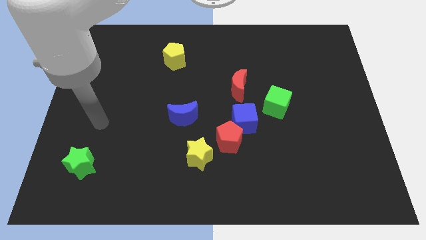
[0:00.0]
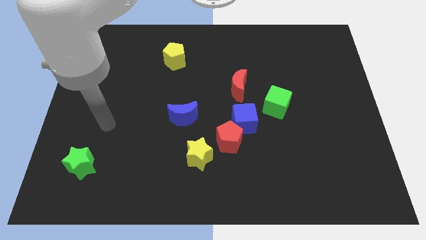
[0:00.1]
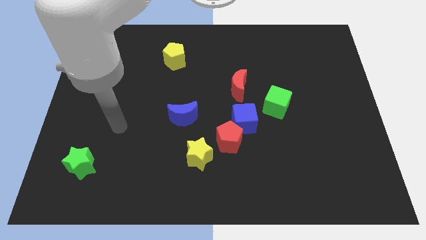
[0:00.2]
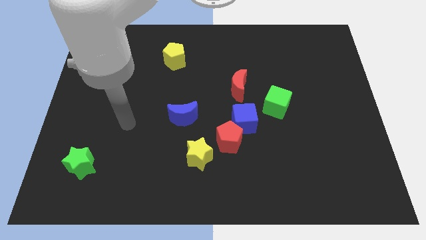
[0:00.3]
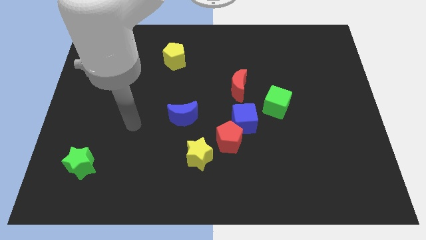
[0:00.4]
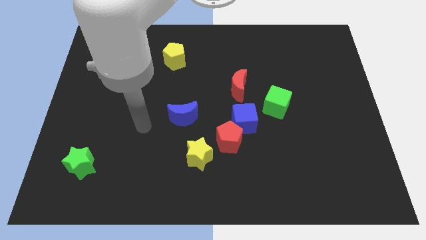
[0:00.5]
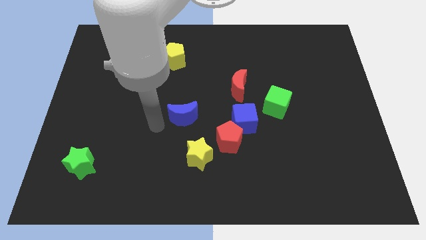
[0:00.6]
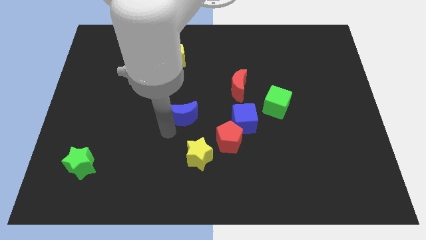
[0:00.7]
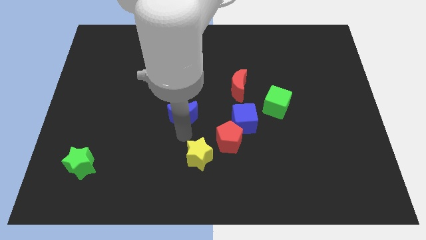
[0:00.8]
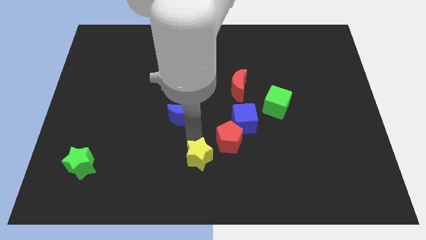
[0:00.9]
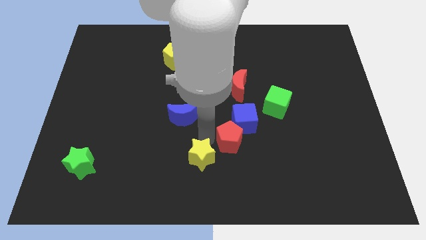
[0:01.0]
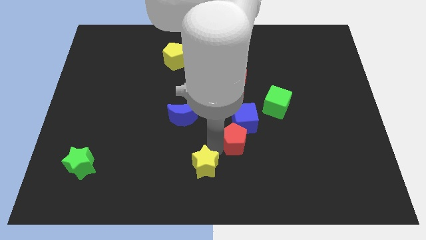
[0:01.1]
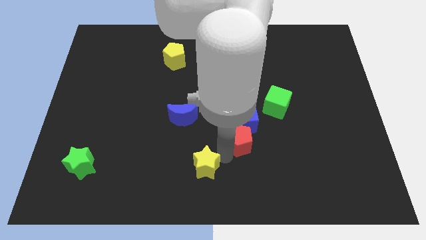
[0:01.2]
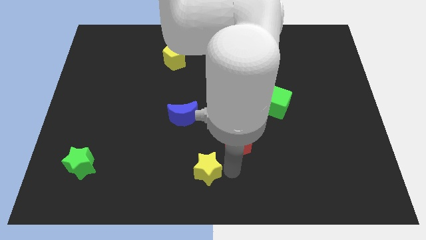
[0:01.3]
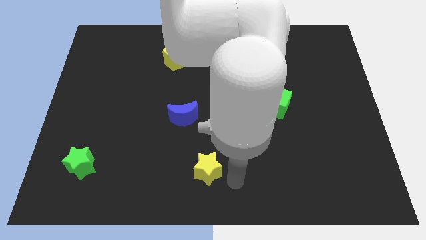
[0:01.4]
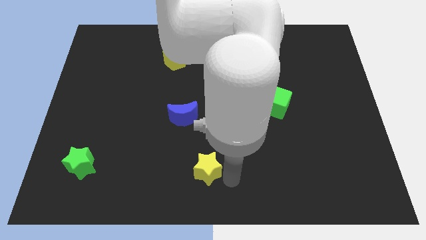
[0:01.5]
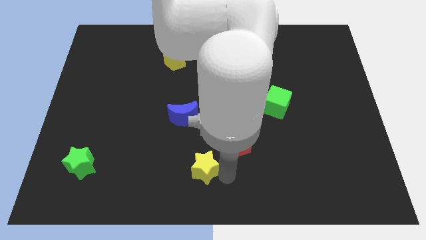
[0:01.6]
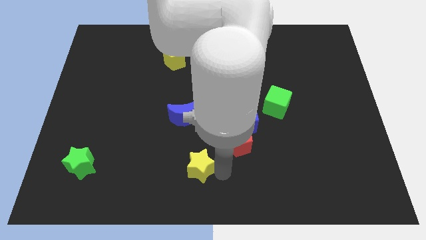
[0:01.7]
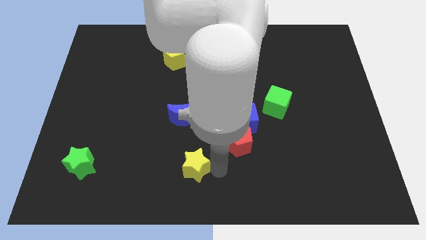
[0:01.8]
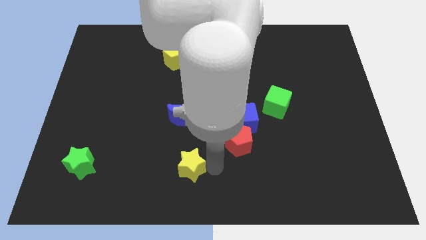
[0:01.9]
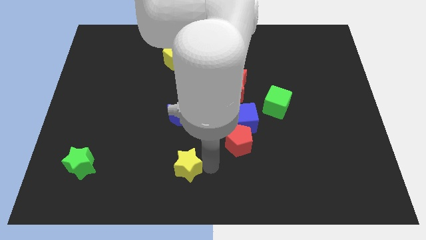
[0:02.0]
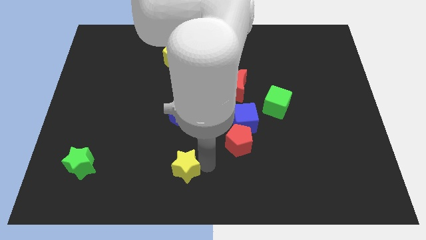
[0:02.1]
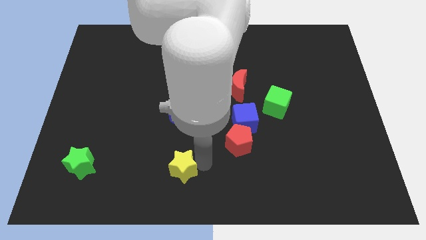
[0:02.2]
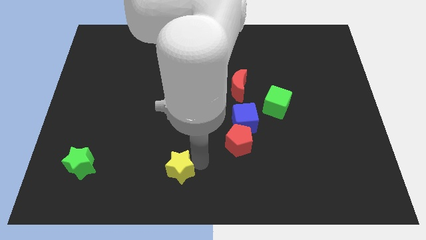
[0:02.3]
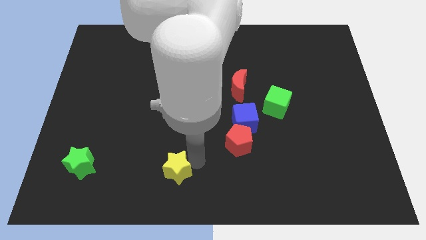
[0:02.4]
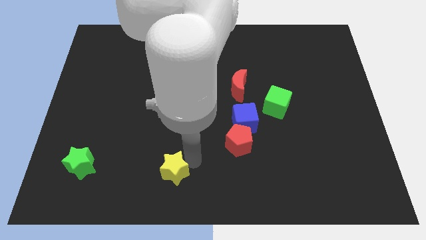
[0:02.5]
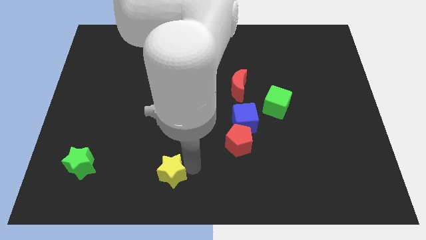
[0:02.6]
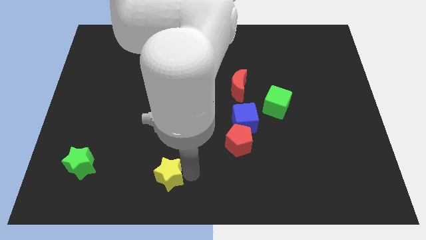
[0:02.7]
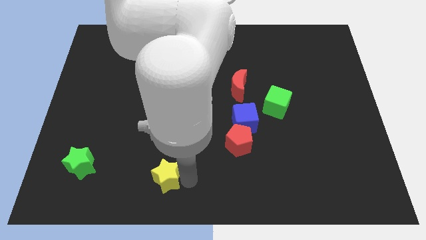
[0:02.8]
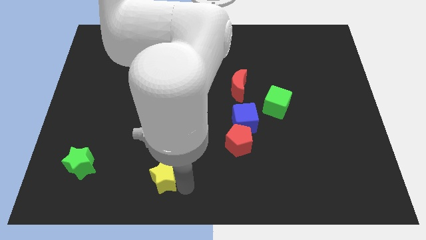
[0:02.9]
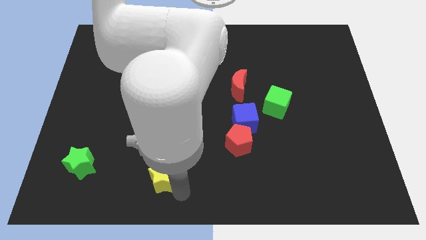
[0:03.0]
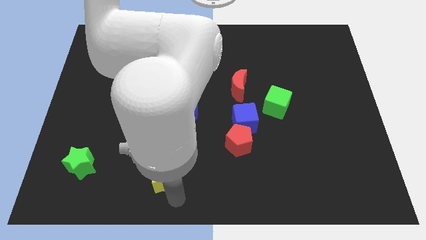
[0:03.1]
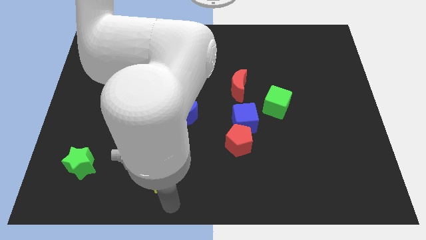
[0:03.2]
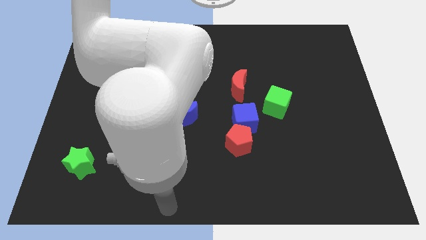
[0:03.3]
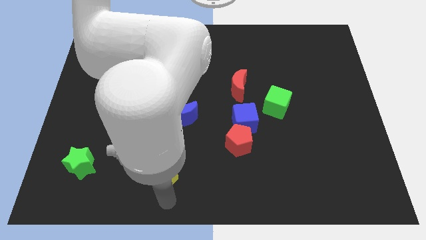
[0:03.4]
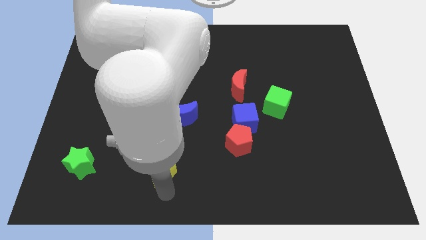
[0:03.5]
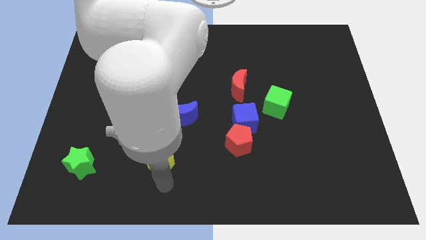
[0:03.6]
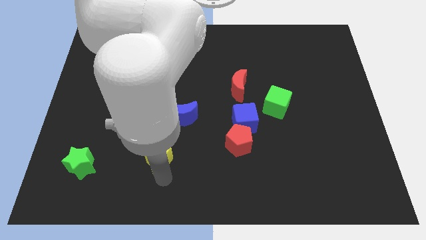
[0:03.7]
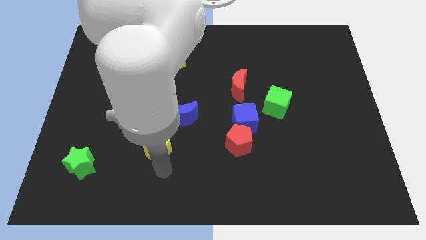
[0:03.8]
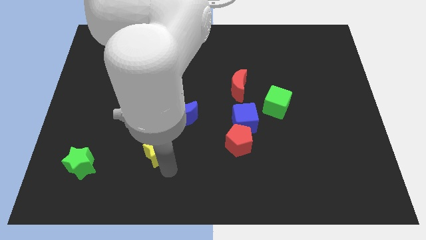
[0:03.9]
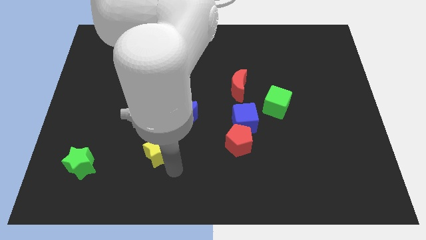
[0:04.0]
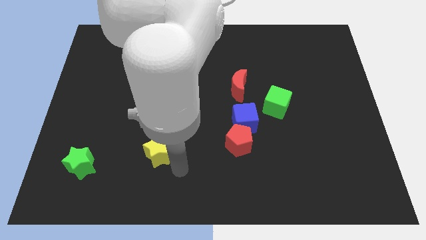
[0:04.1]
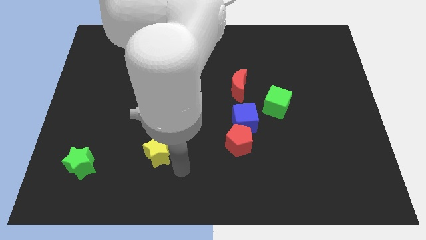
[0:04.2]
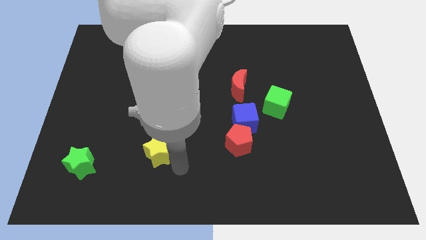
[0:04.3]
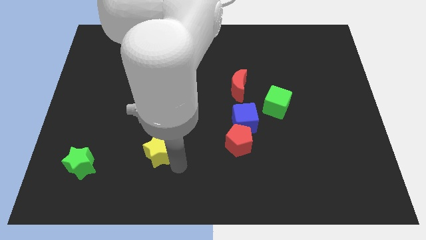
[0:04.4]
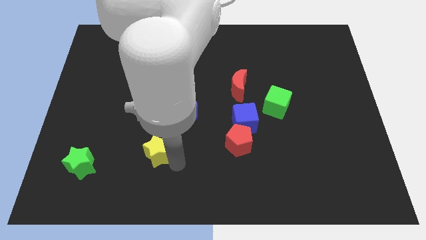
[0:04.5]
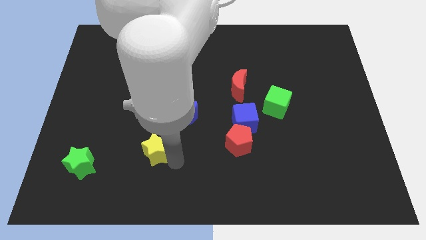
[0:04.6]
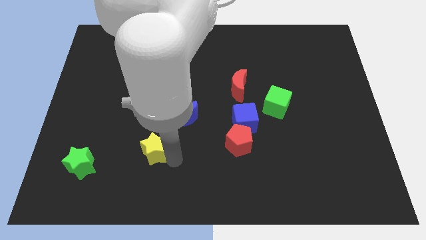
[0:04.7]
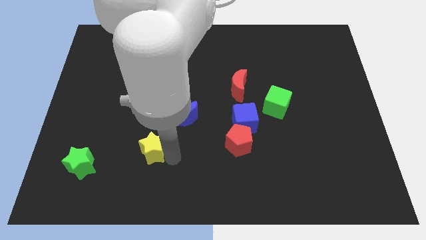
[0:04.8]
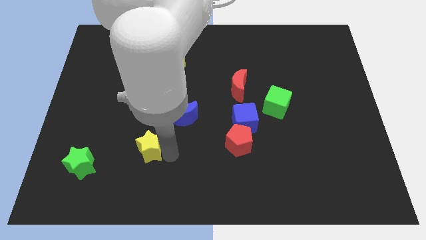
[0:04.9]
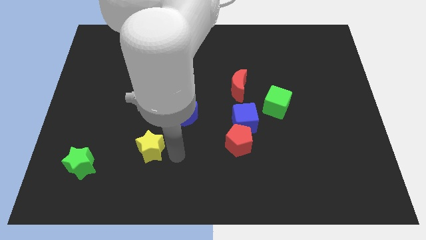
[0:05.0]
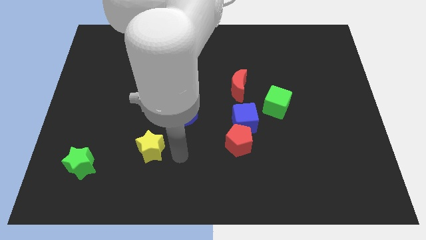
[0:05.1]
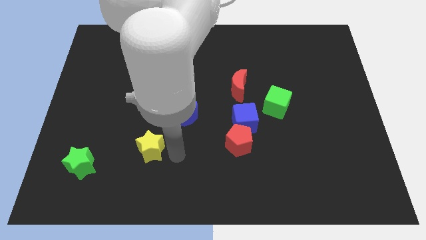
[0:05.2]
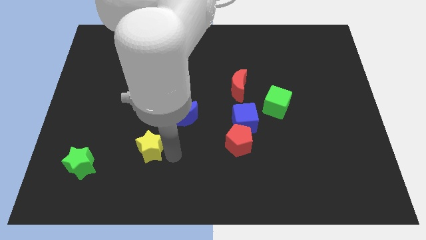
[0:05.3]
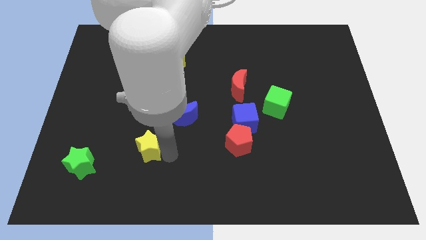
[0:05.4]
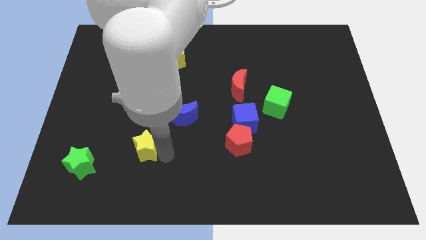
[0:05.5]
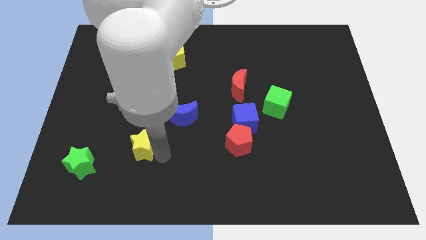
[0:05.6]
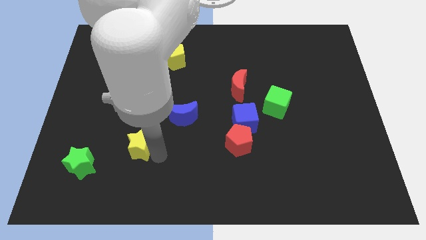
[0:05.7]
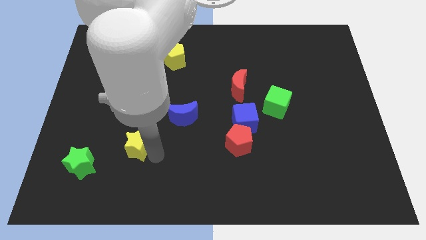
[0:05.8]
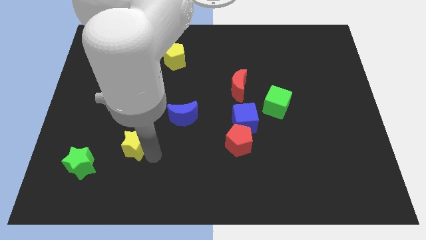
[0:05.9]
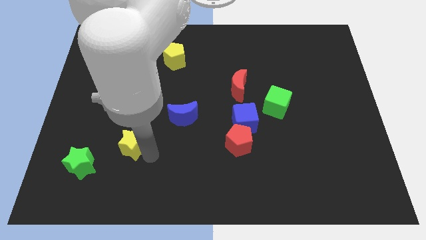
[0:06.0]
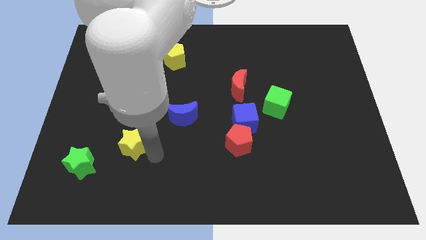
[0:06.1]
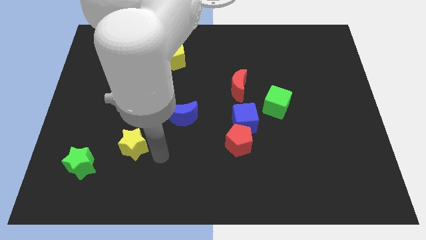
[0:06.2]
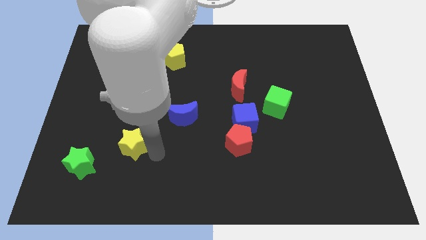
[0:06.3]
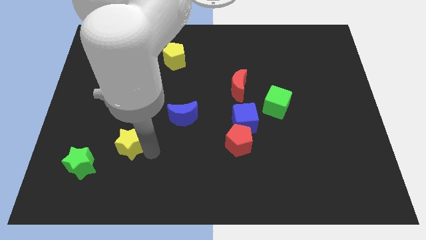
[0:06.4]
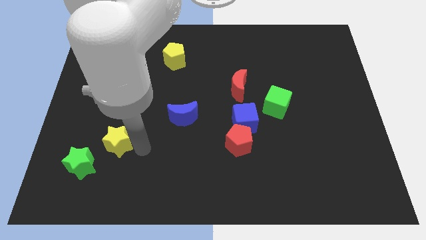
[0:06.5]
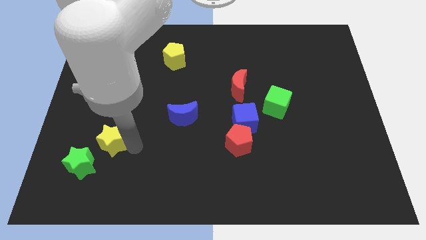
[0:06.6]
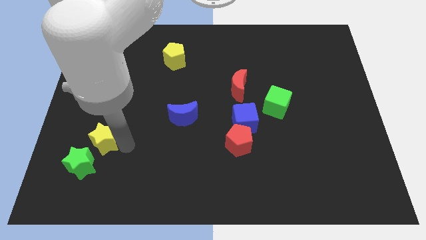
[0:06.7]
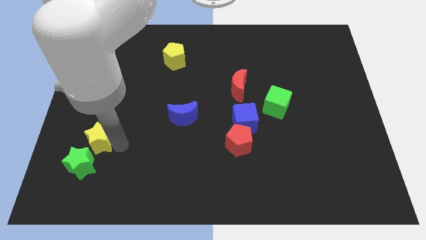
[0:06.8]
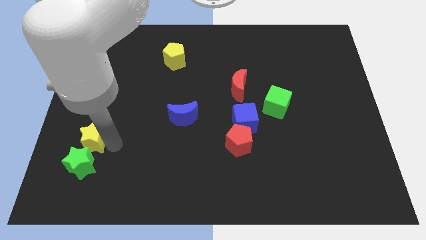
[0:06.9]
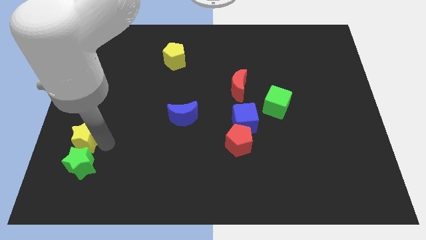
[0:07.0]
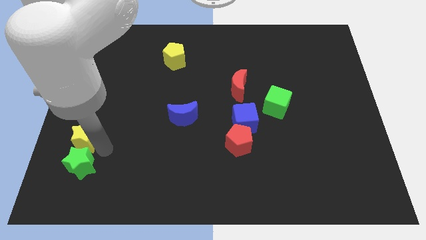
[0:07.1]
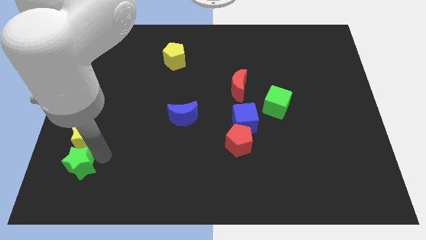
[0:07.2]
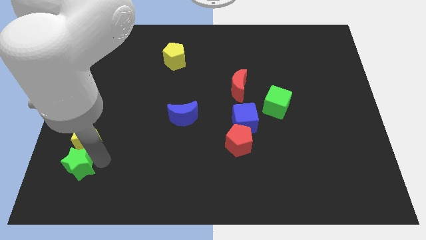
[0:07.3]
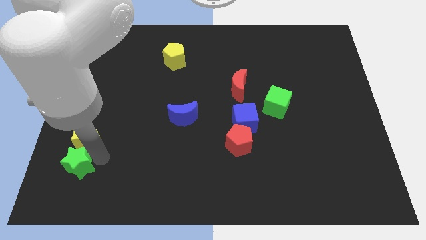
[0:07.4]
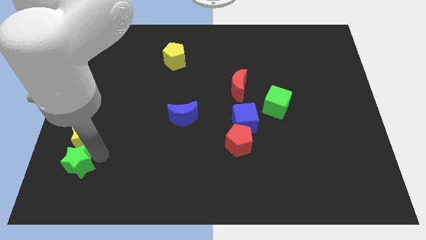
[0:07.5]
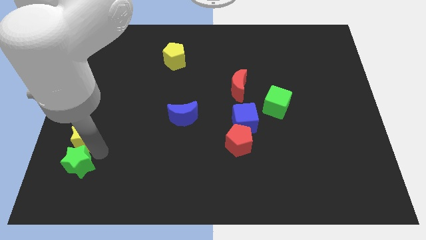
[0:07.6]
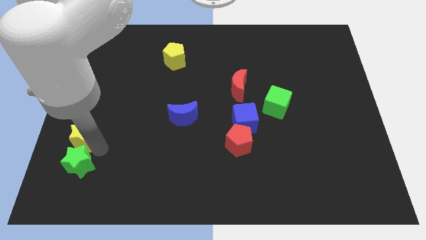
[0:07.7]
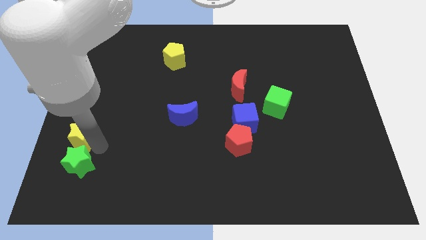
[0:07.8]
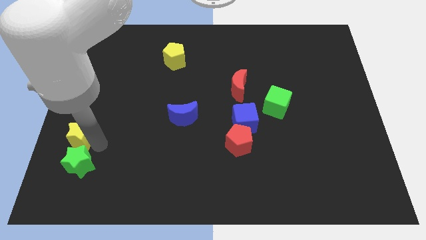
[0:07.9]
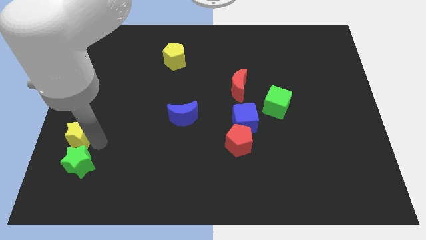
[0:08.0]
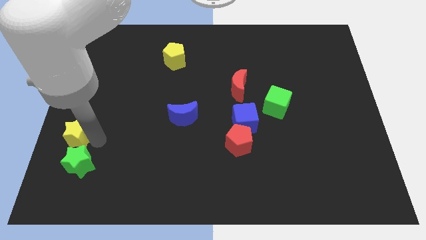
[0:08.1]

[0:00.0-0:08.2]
put the yellow star to the left side of the board
